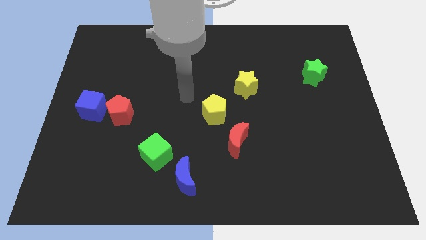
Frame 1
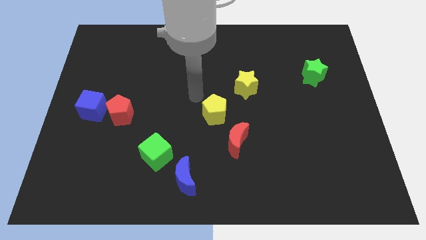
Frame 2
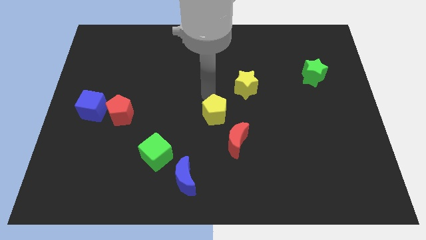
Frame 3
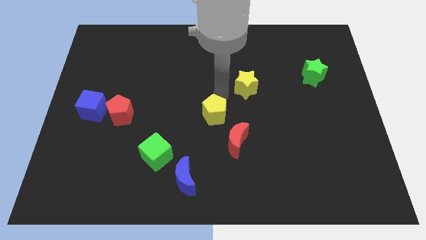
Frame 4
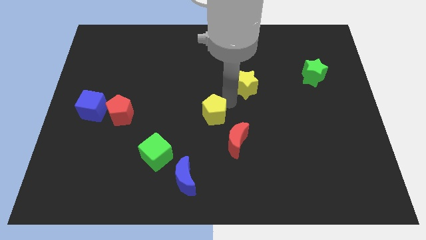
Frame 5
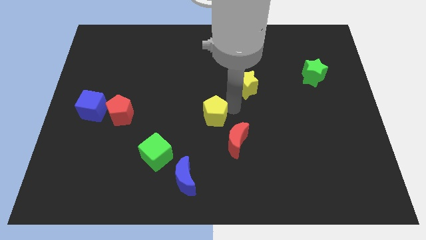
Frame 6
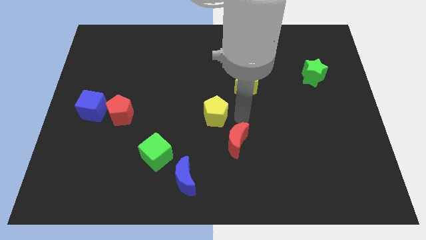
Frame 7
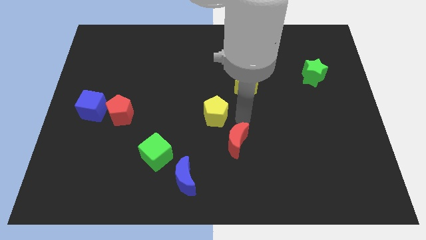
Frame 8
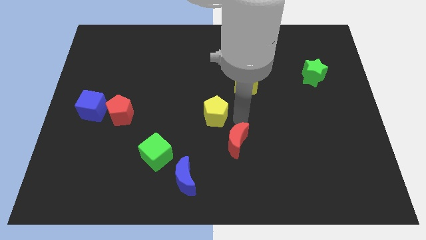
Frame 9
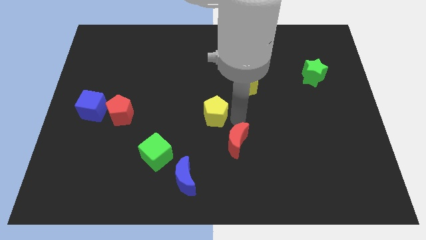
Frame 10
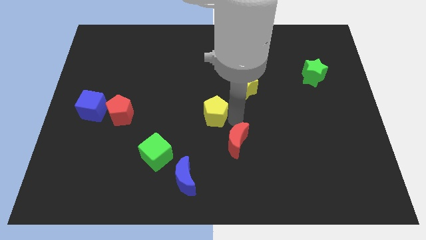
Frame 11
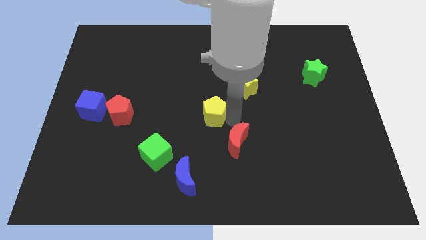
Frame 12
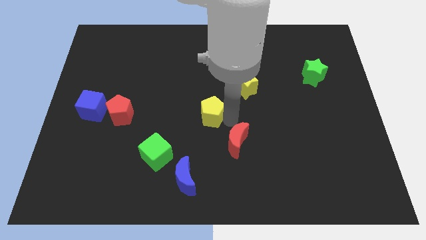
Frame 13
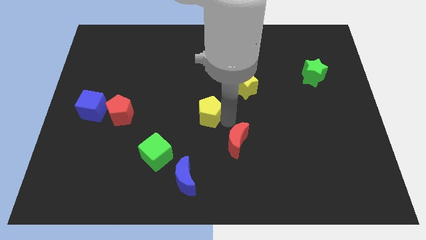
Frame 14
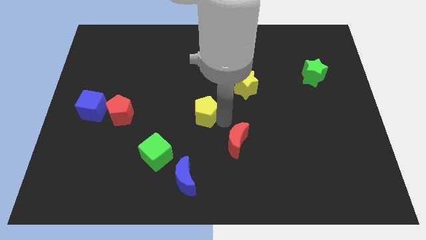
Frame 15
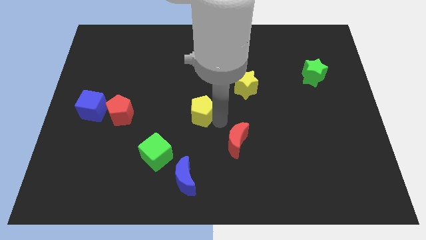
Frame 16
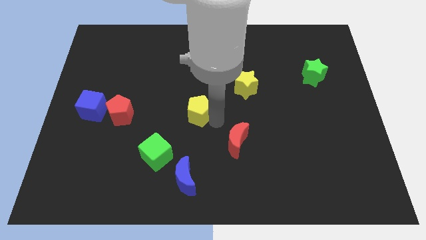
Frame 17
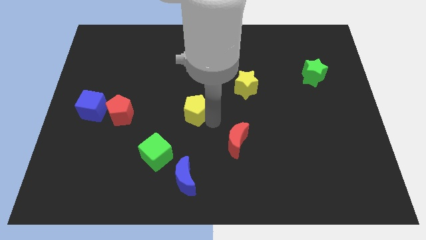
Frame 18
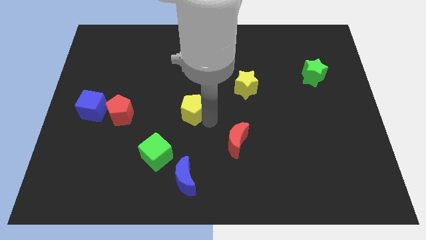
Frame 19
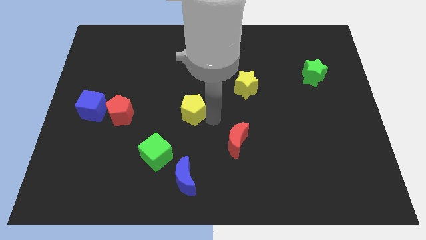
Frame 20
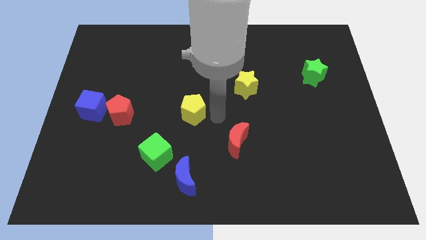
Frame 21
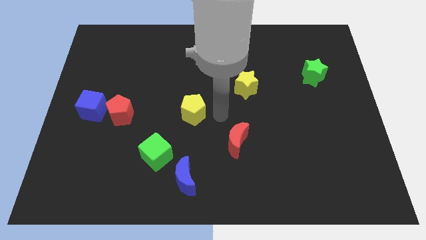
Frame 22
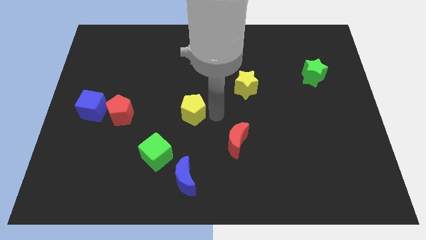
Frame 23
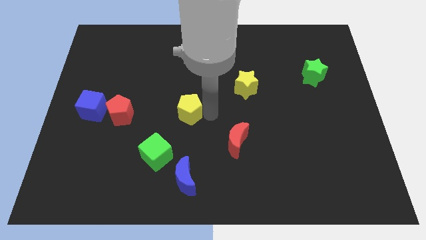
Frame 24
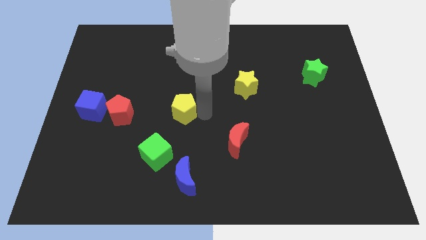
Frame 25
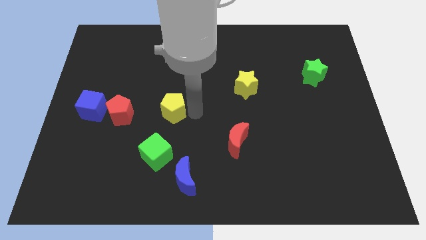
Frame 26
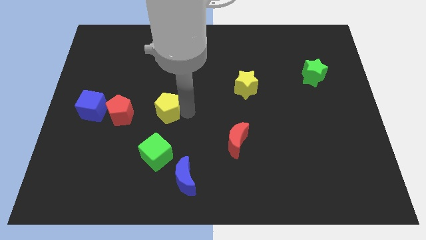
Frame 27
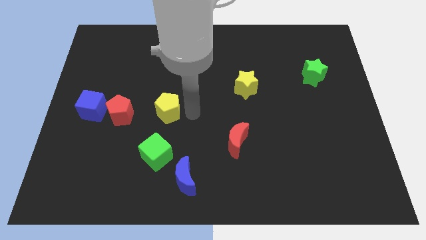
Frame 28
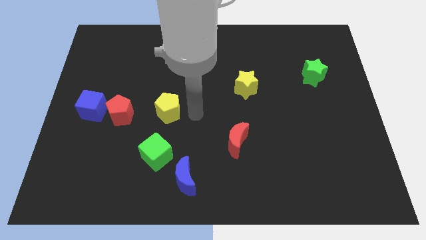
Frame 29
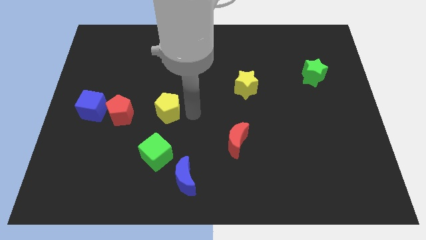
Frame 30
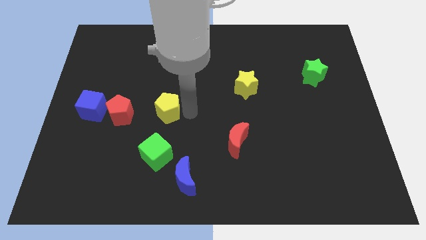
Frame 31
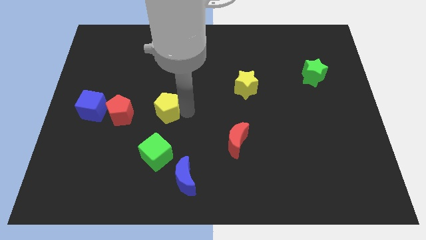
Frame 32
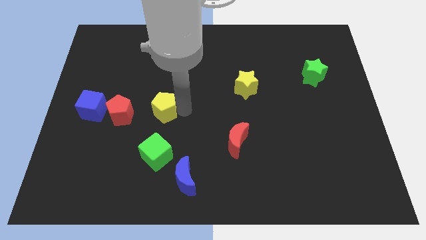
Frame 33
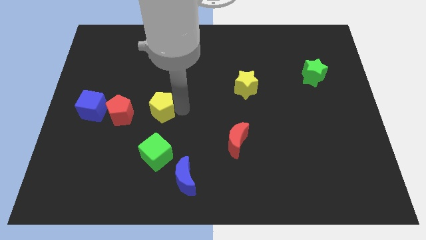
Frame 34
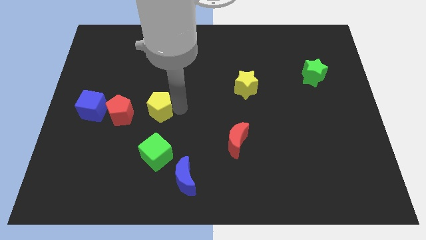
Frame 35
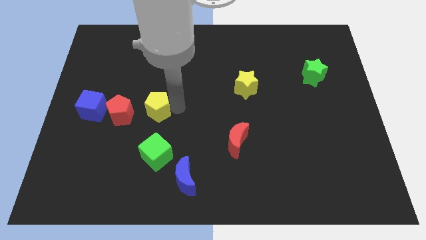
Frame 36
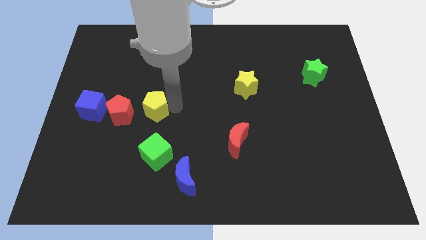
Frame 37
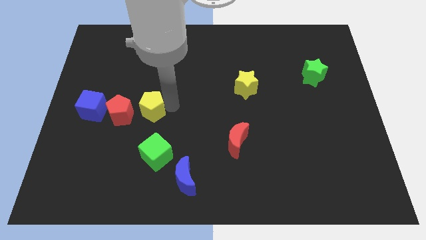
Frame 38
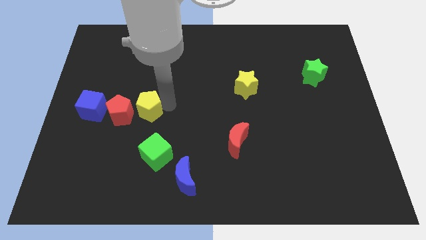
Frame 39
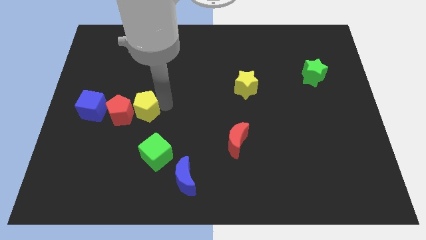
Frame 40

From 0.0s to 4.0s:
move the yellow pentagon towards the red pentagon

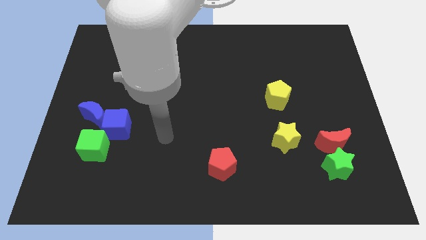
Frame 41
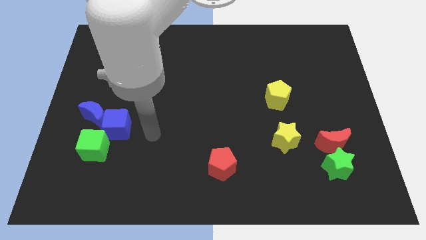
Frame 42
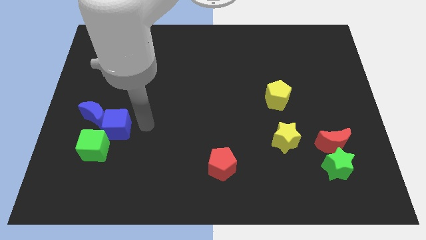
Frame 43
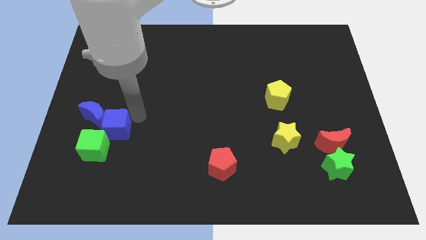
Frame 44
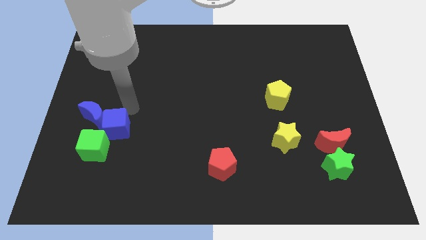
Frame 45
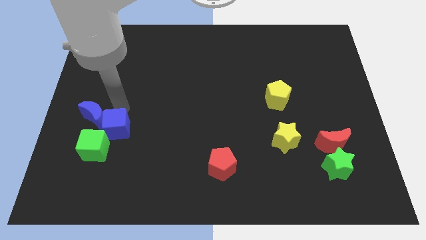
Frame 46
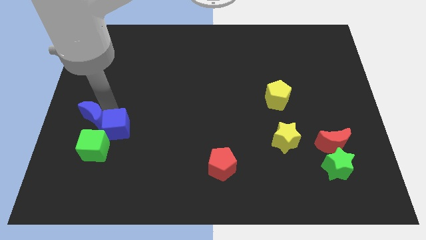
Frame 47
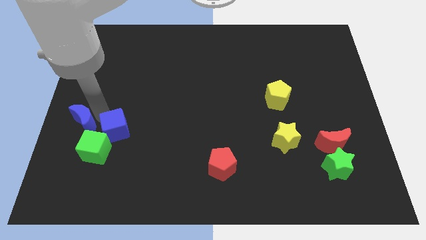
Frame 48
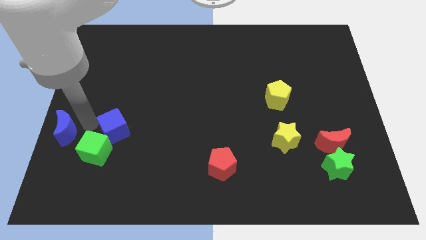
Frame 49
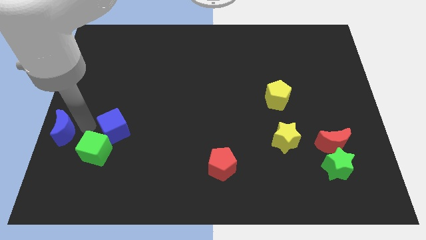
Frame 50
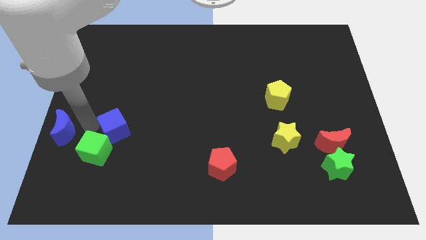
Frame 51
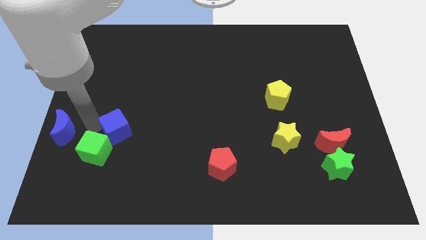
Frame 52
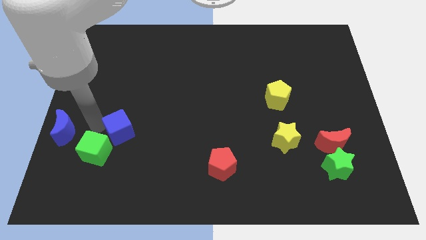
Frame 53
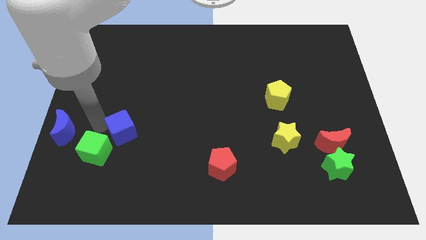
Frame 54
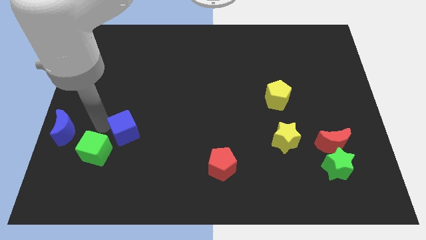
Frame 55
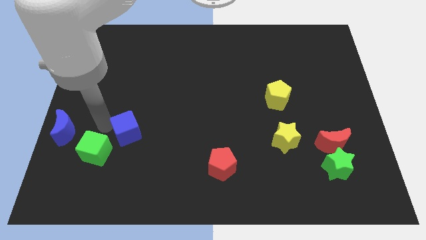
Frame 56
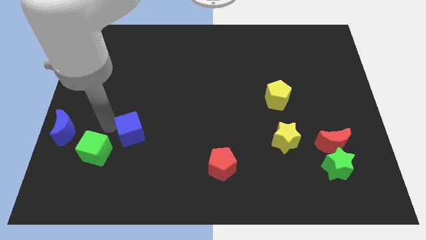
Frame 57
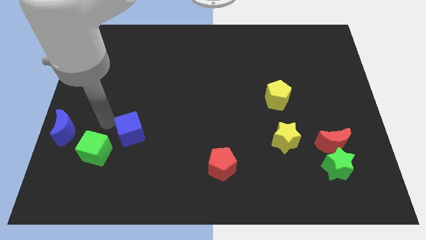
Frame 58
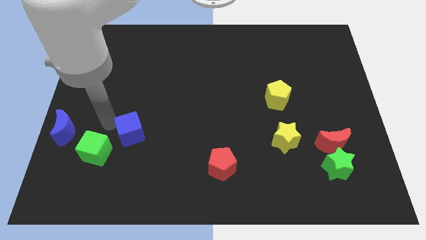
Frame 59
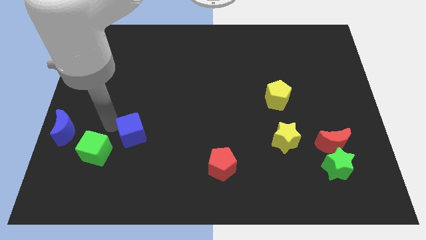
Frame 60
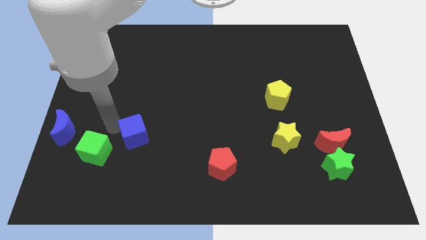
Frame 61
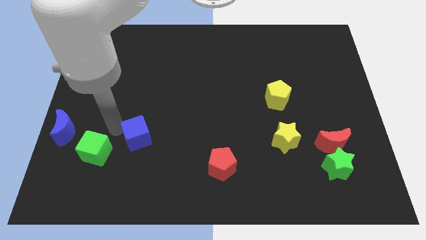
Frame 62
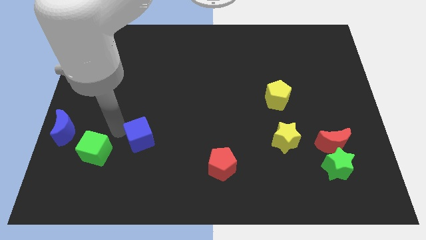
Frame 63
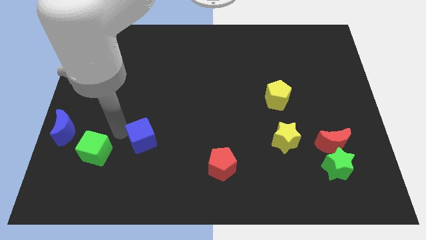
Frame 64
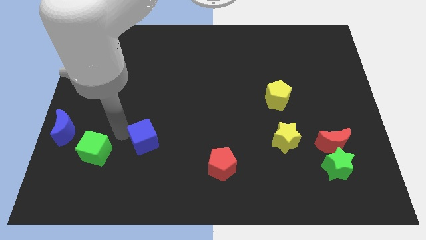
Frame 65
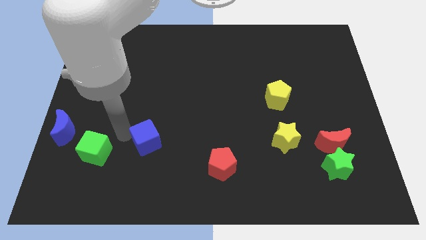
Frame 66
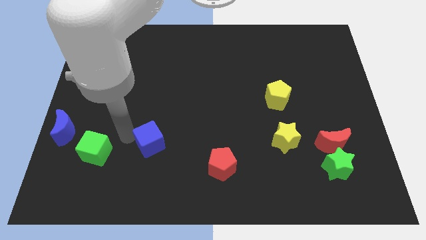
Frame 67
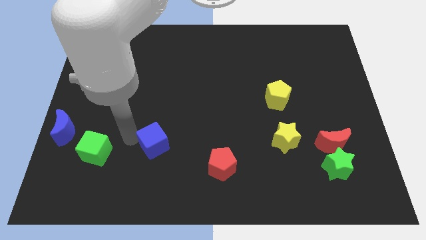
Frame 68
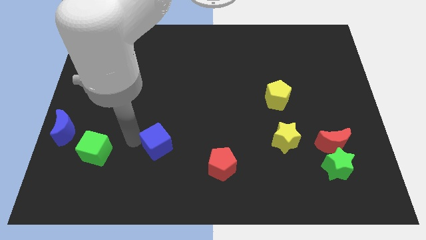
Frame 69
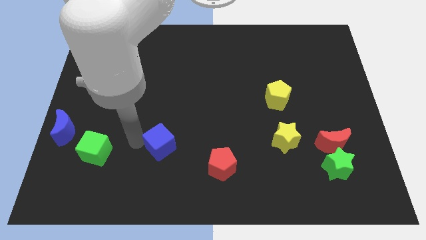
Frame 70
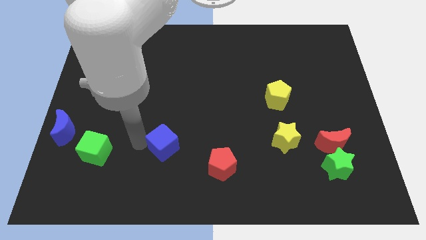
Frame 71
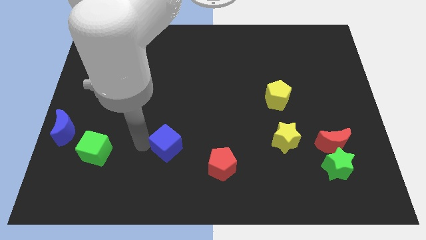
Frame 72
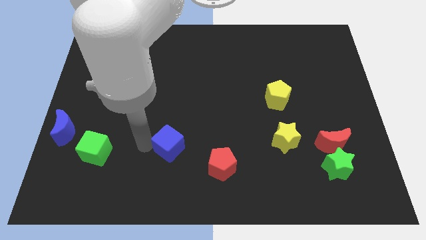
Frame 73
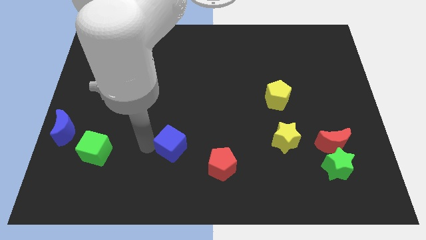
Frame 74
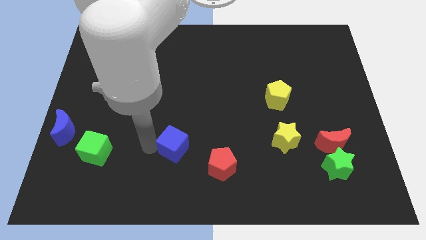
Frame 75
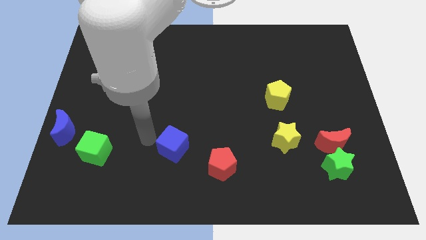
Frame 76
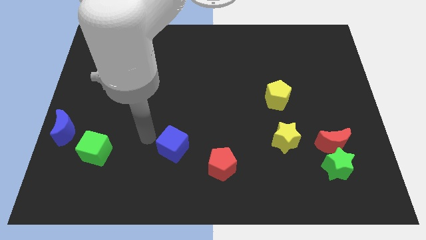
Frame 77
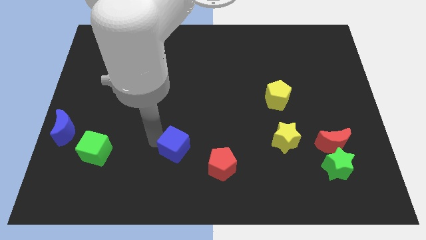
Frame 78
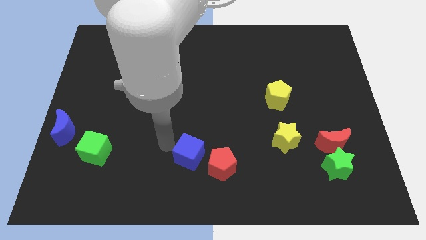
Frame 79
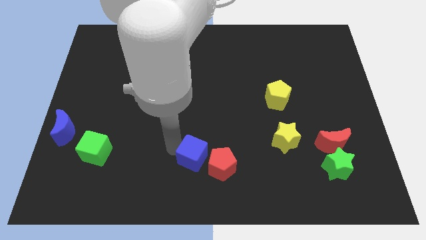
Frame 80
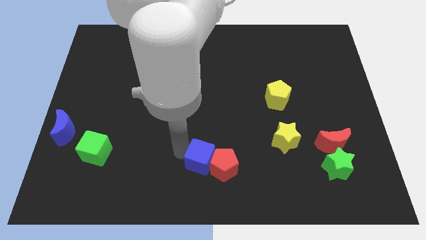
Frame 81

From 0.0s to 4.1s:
push the blue cube next to the red pentagon
